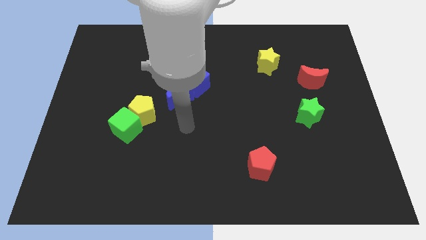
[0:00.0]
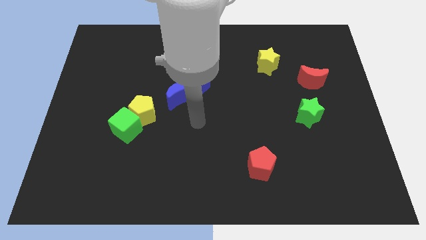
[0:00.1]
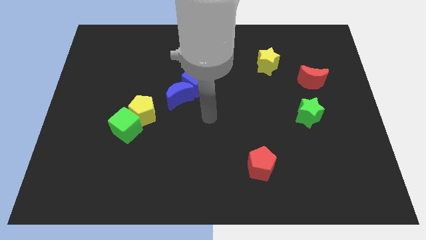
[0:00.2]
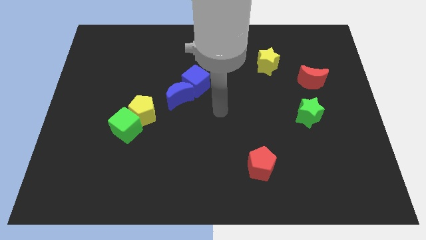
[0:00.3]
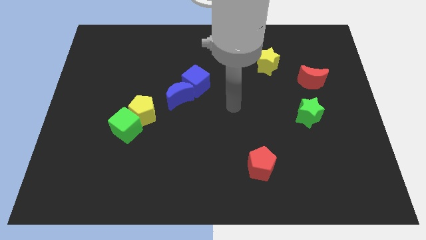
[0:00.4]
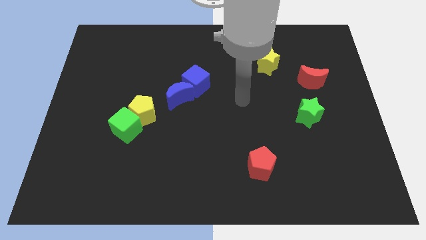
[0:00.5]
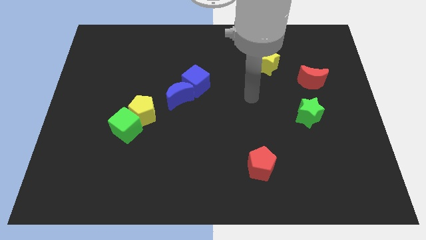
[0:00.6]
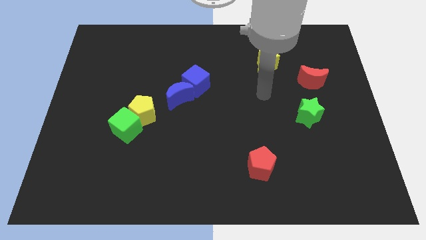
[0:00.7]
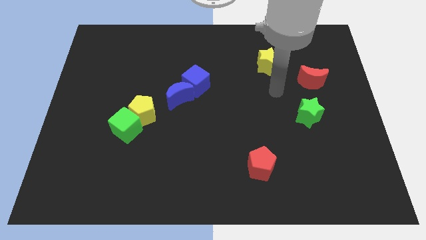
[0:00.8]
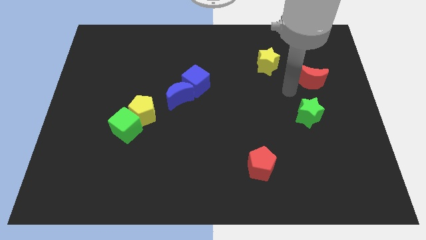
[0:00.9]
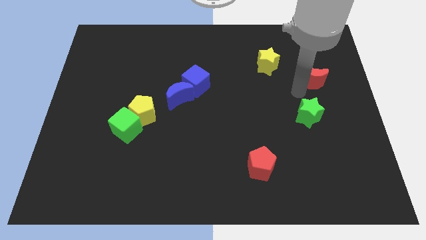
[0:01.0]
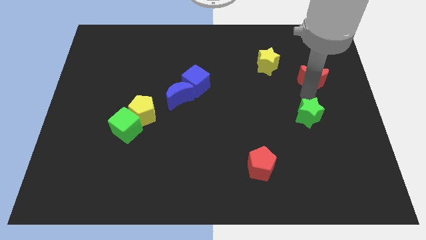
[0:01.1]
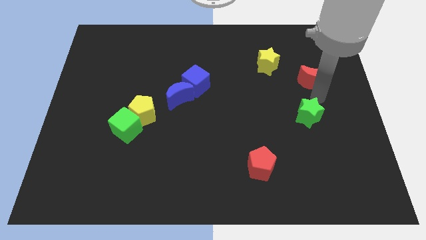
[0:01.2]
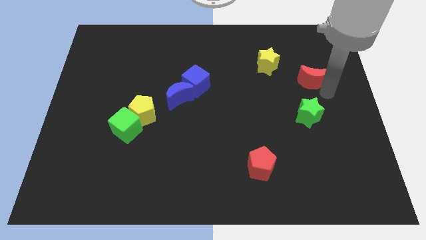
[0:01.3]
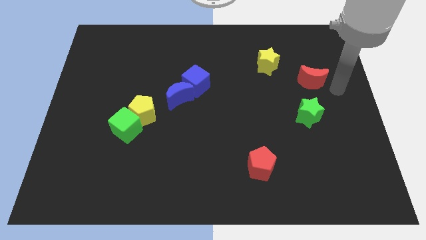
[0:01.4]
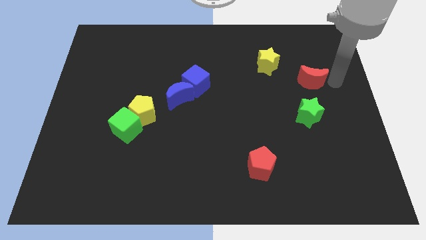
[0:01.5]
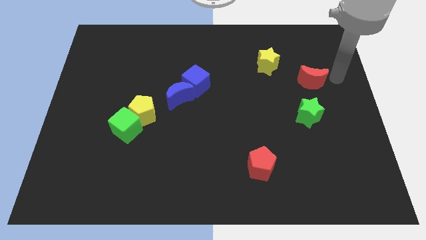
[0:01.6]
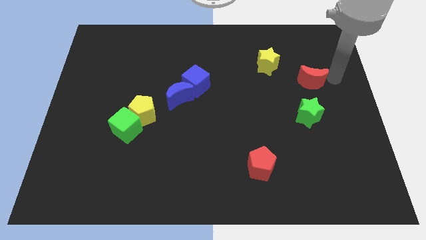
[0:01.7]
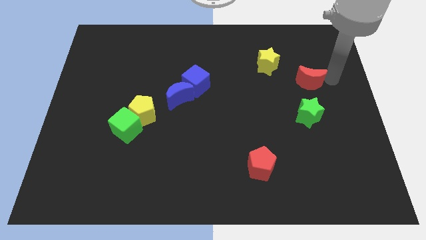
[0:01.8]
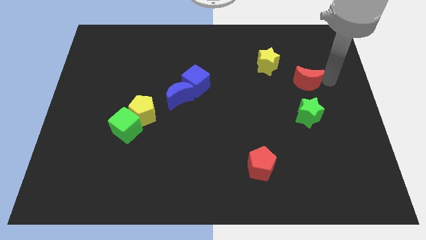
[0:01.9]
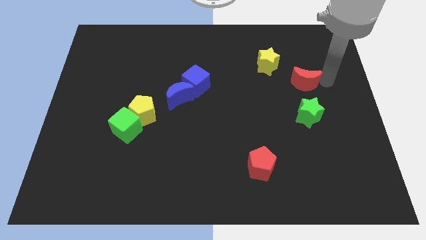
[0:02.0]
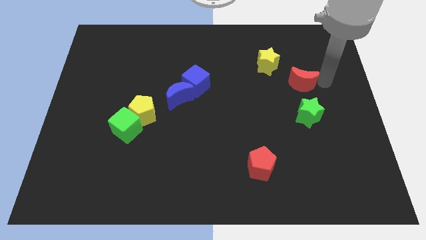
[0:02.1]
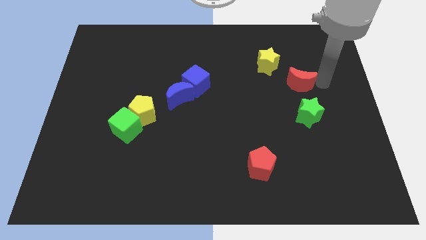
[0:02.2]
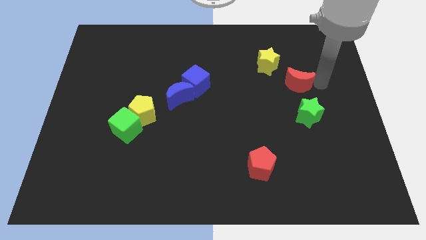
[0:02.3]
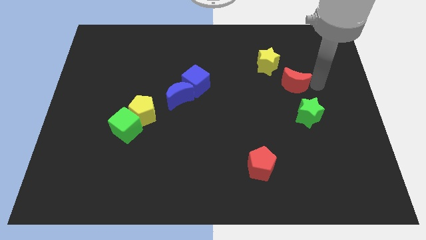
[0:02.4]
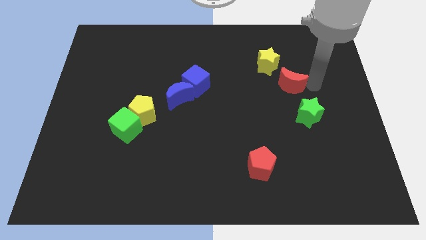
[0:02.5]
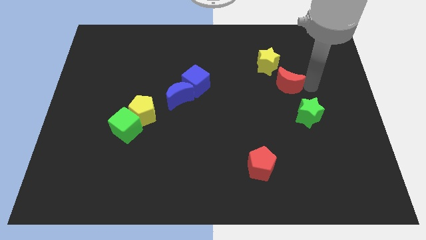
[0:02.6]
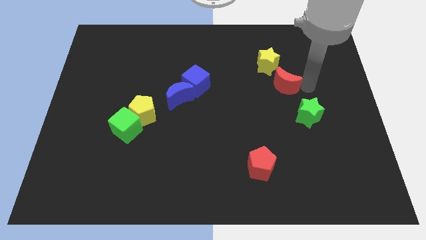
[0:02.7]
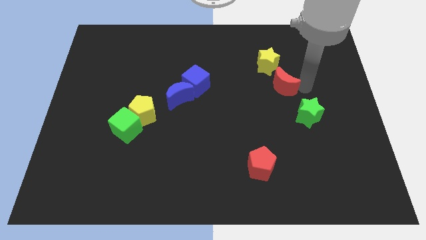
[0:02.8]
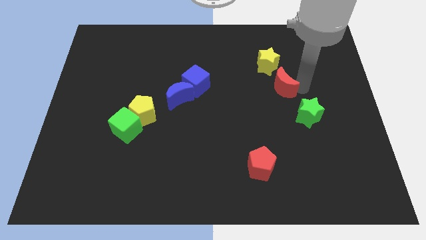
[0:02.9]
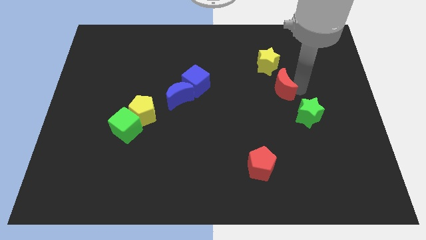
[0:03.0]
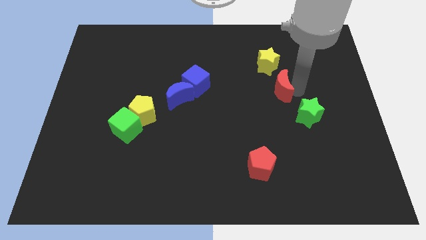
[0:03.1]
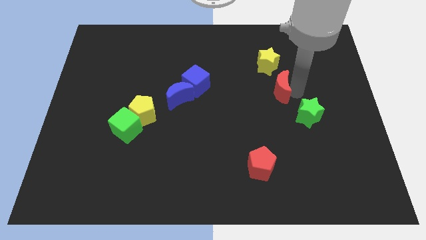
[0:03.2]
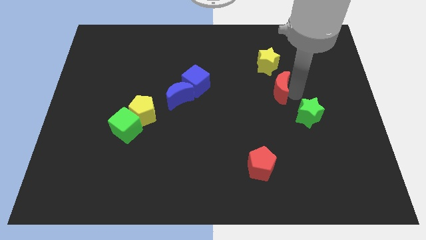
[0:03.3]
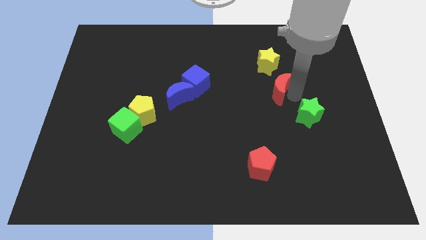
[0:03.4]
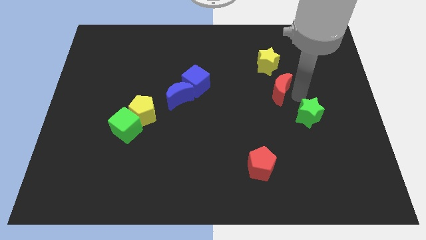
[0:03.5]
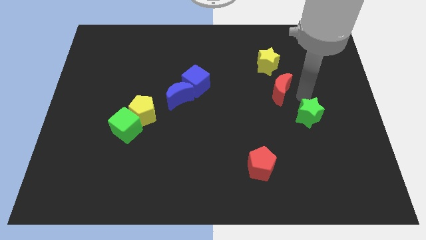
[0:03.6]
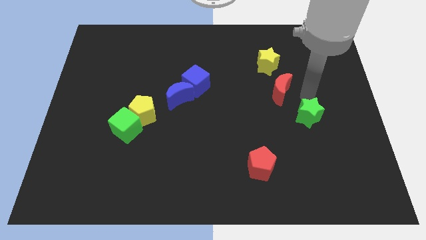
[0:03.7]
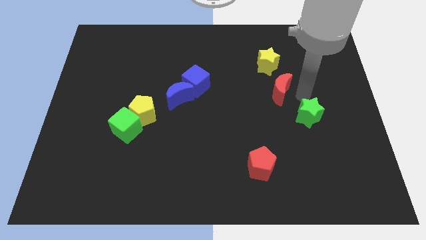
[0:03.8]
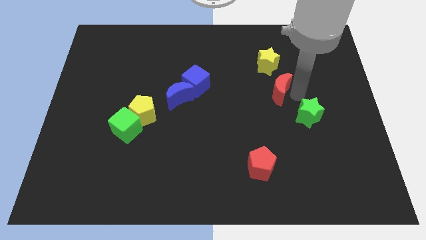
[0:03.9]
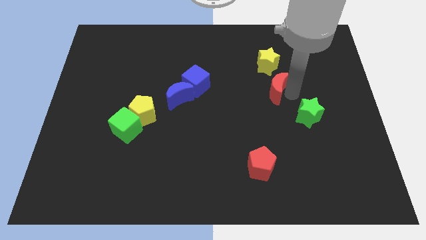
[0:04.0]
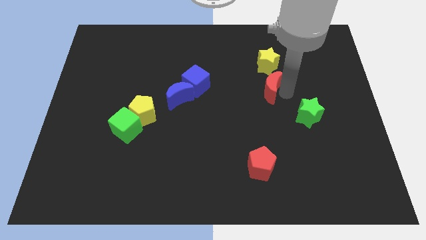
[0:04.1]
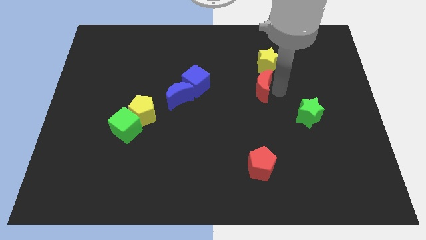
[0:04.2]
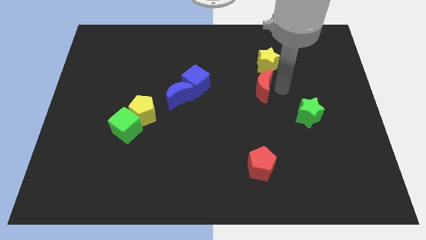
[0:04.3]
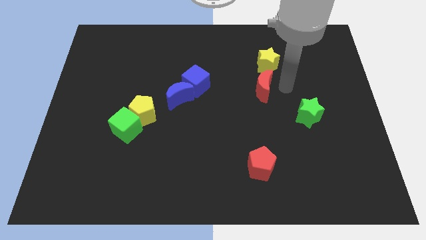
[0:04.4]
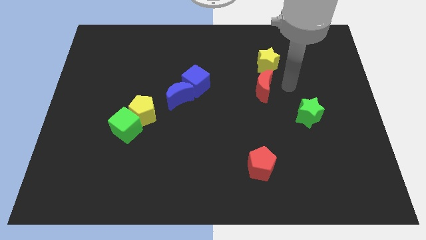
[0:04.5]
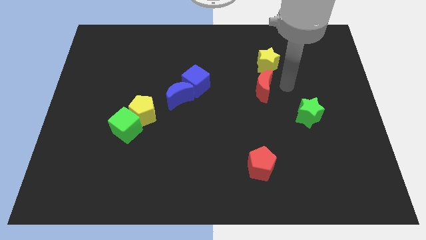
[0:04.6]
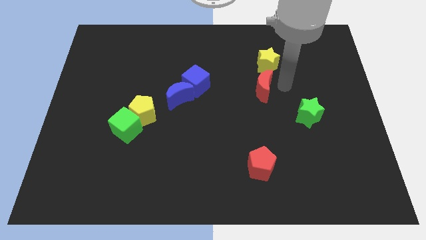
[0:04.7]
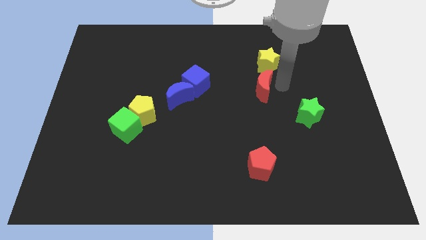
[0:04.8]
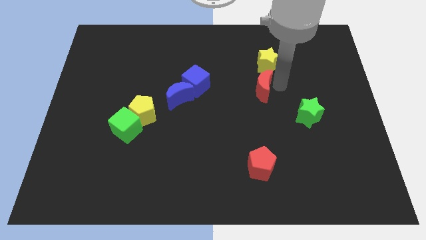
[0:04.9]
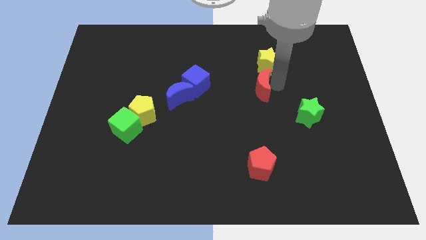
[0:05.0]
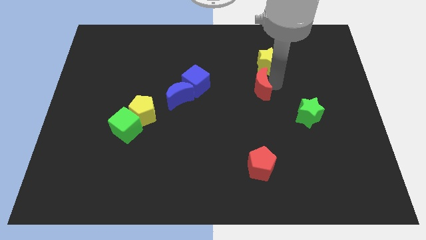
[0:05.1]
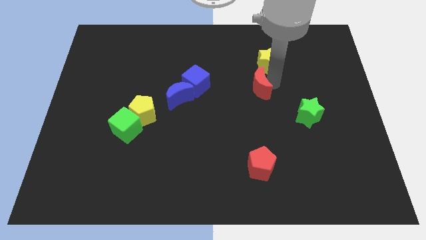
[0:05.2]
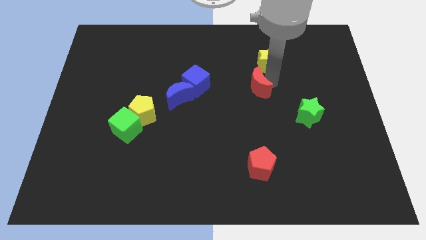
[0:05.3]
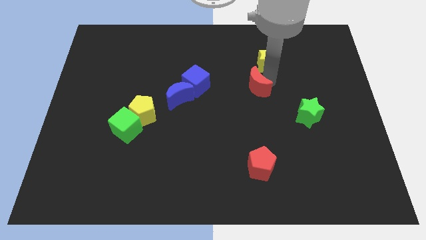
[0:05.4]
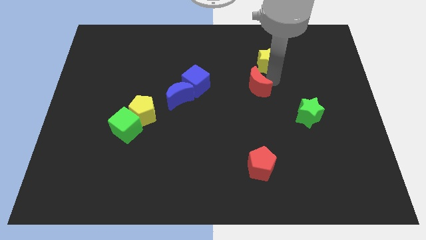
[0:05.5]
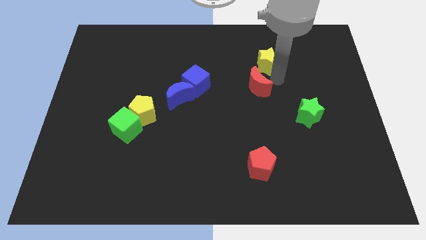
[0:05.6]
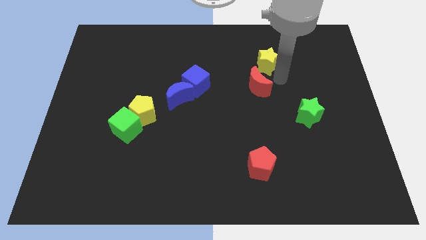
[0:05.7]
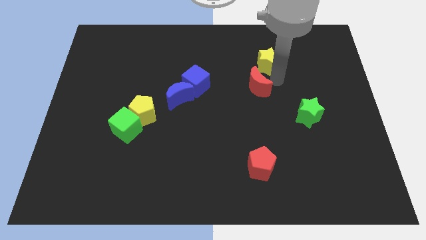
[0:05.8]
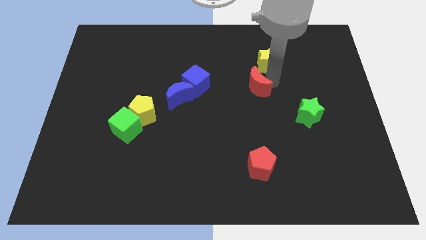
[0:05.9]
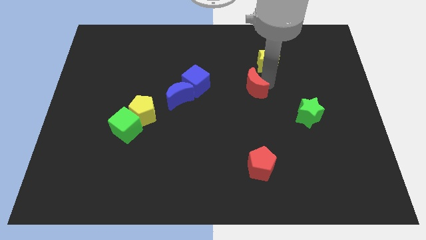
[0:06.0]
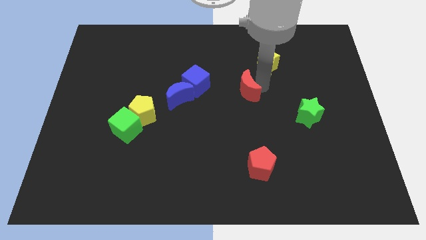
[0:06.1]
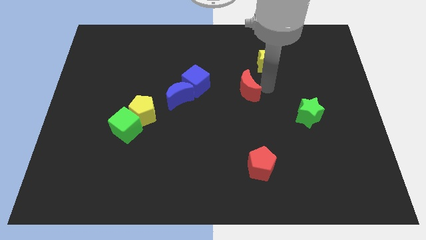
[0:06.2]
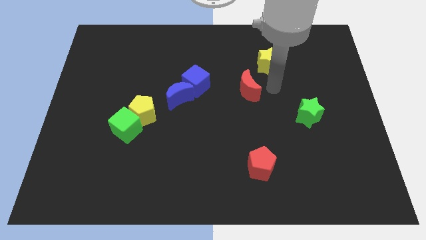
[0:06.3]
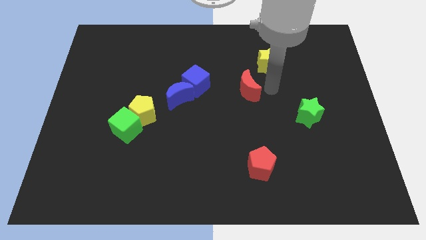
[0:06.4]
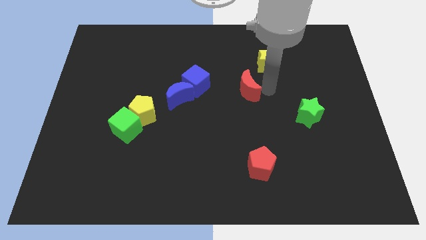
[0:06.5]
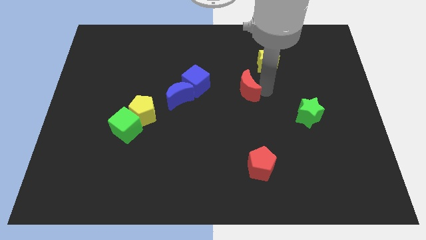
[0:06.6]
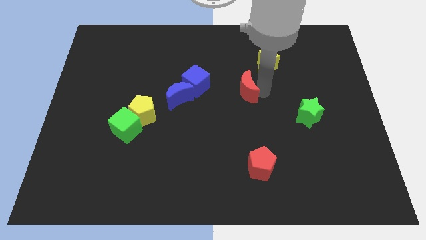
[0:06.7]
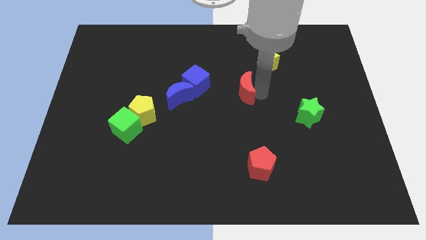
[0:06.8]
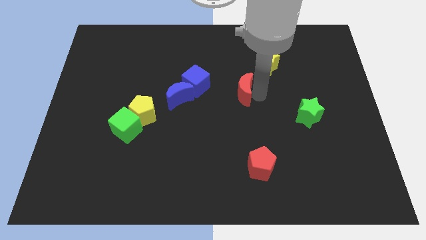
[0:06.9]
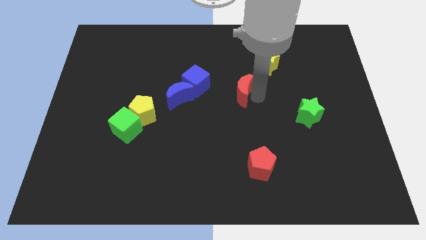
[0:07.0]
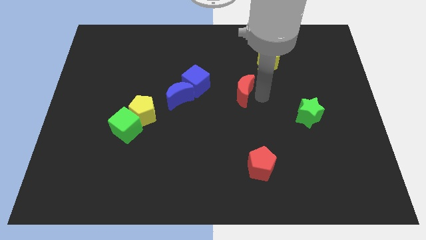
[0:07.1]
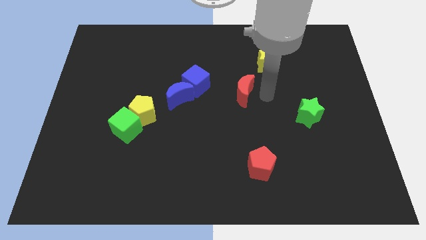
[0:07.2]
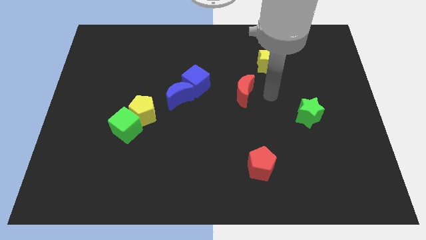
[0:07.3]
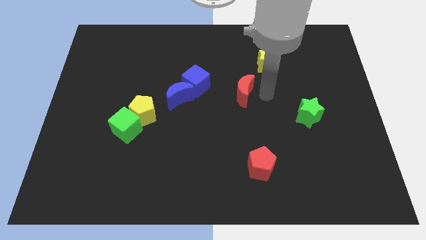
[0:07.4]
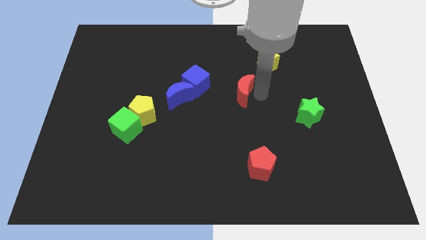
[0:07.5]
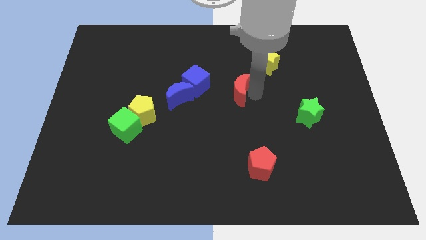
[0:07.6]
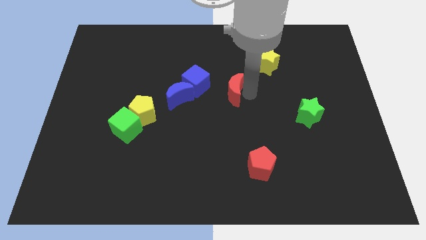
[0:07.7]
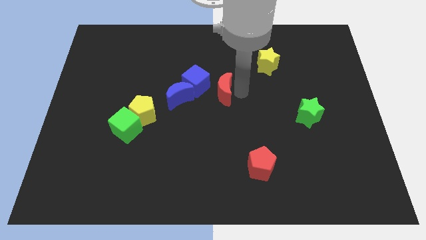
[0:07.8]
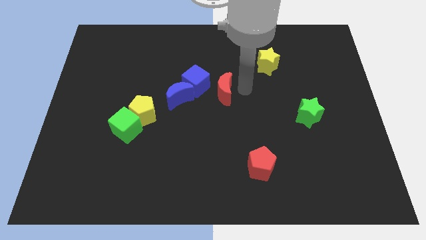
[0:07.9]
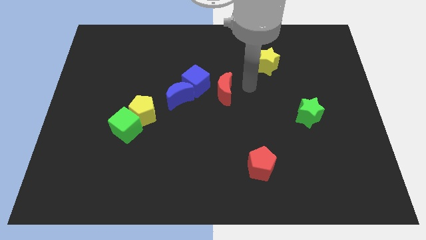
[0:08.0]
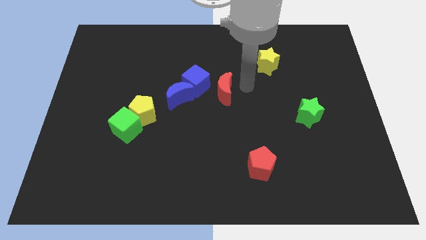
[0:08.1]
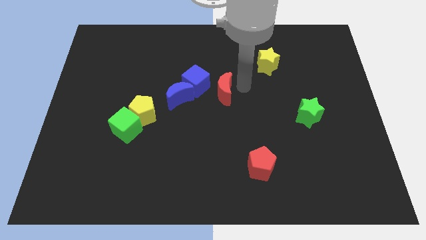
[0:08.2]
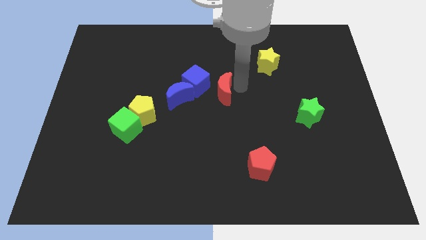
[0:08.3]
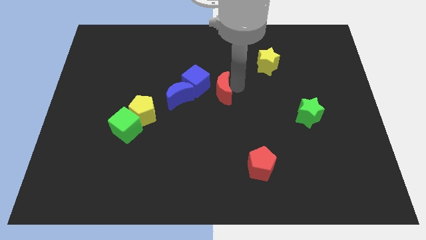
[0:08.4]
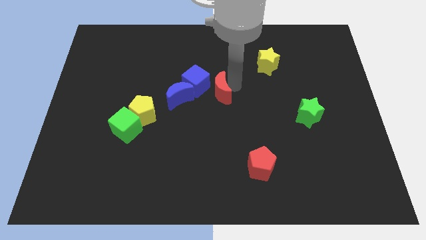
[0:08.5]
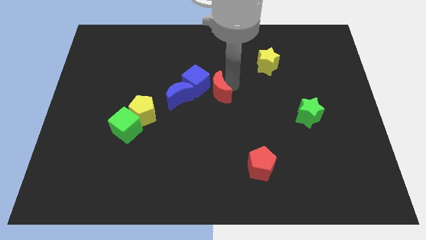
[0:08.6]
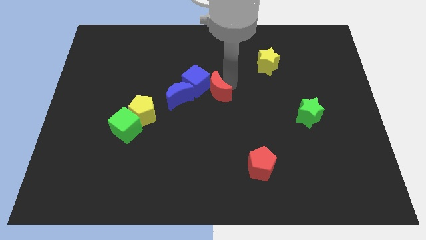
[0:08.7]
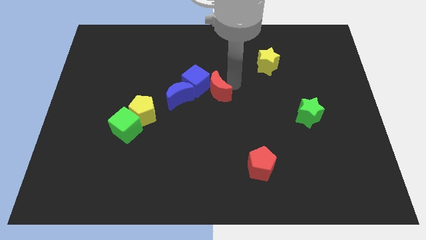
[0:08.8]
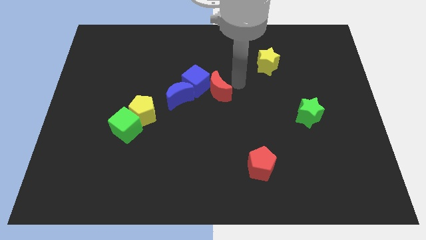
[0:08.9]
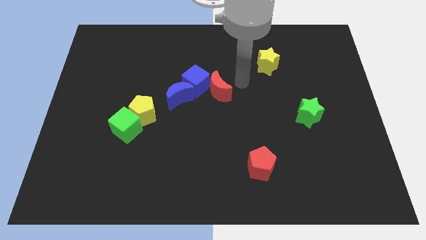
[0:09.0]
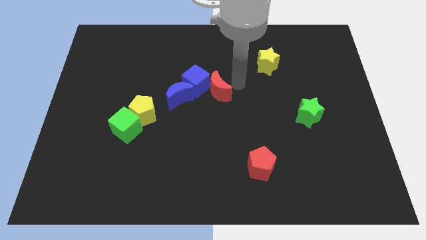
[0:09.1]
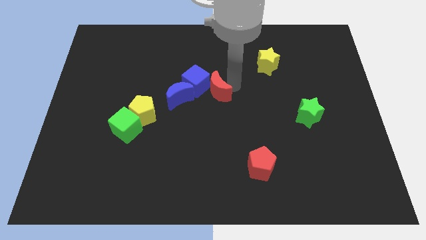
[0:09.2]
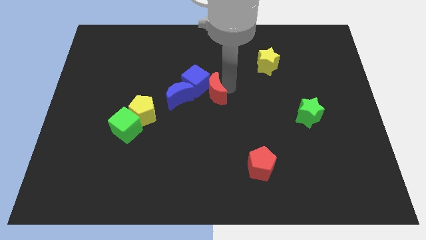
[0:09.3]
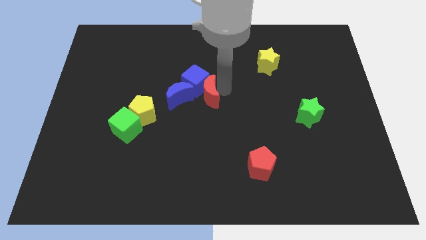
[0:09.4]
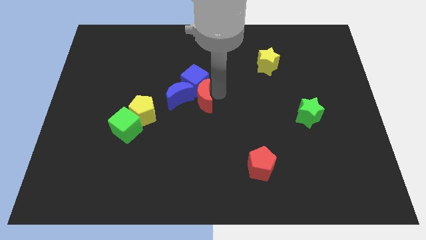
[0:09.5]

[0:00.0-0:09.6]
slide the red moon towards the blue moon
